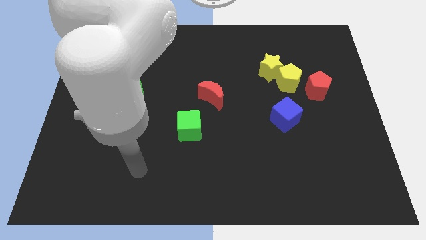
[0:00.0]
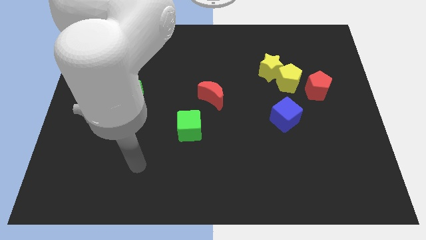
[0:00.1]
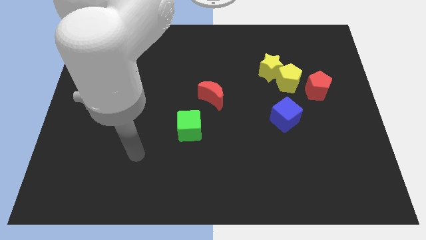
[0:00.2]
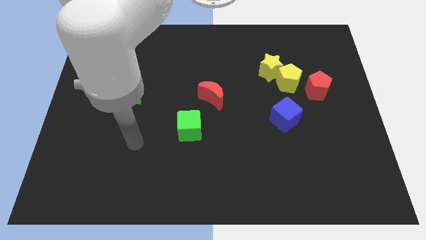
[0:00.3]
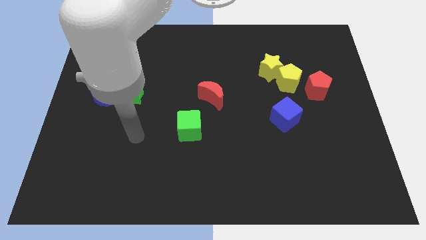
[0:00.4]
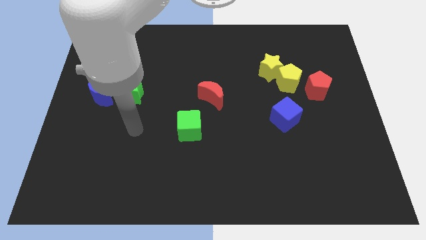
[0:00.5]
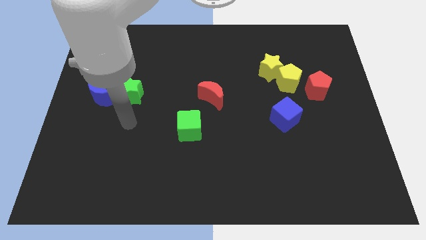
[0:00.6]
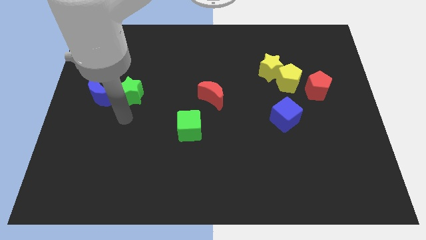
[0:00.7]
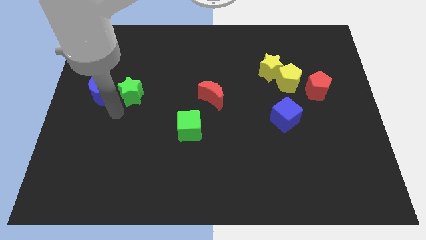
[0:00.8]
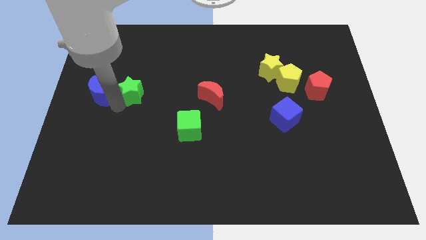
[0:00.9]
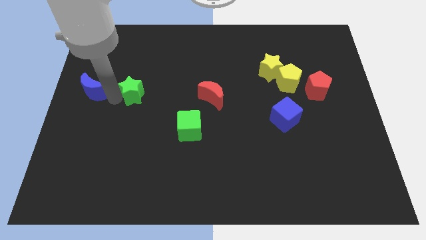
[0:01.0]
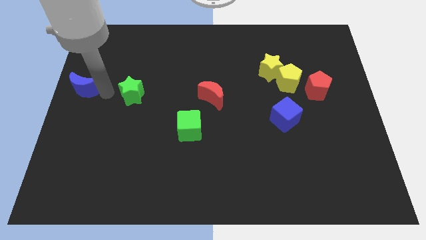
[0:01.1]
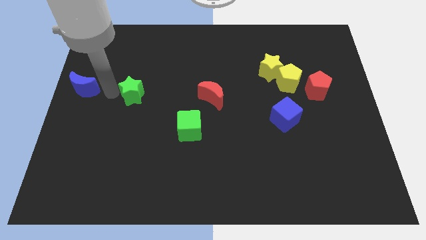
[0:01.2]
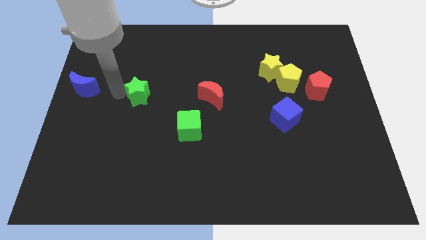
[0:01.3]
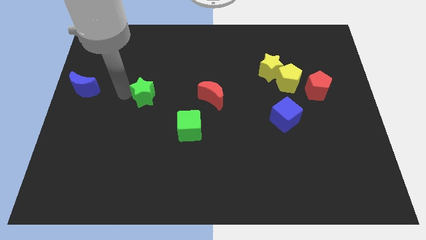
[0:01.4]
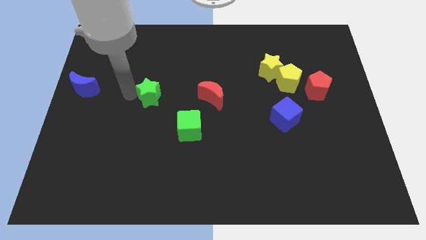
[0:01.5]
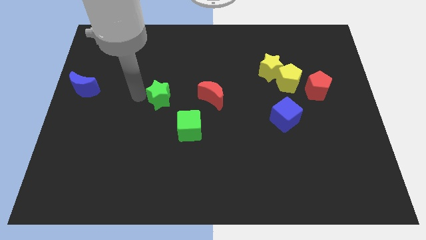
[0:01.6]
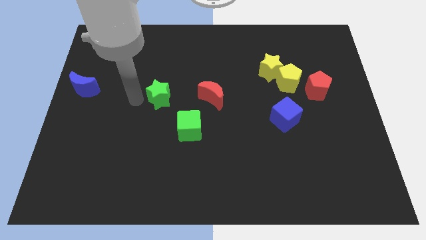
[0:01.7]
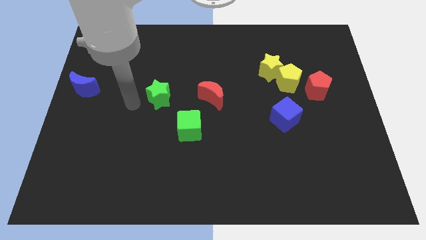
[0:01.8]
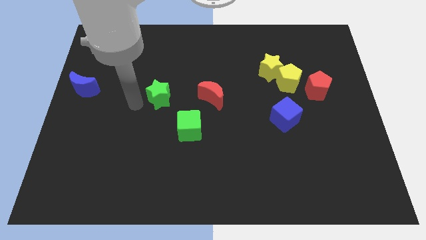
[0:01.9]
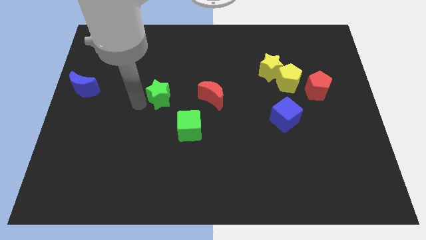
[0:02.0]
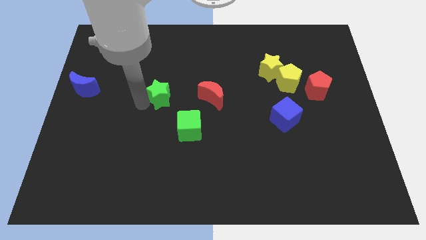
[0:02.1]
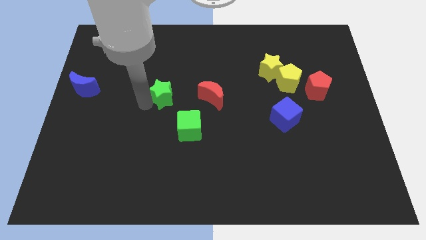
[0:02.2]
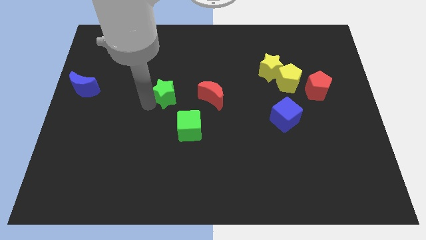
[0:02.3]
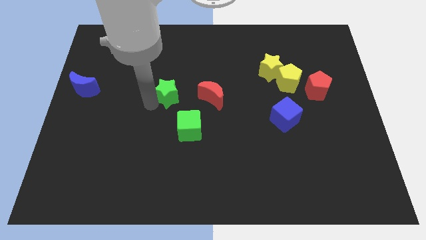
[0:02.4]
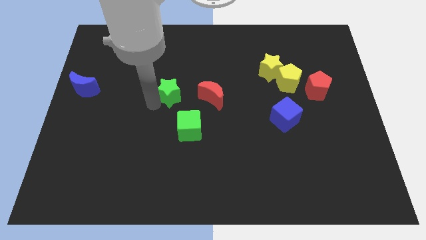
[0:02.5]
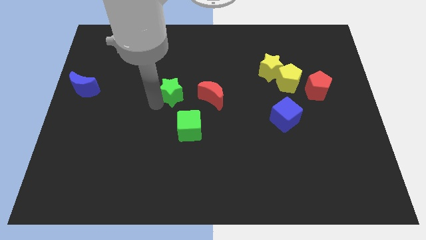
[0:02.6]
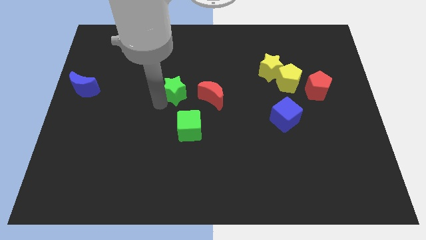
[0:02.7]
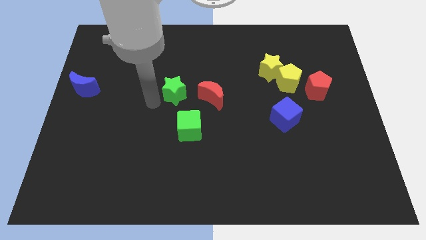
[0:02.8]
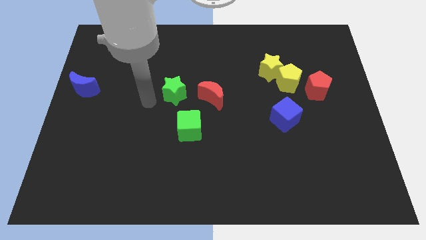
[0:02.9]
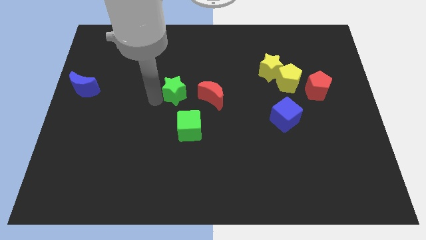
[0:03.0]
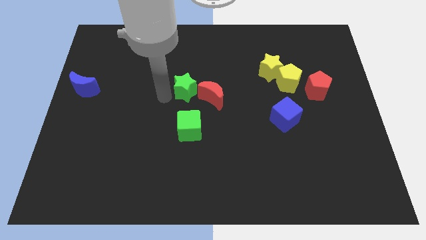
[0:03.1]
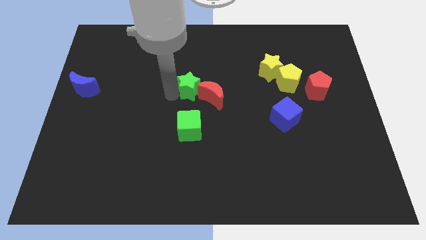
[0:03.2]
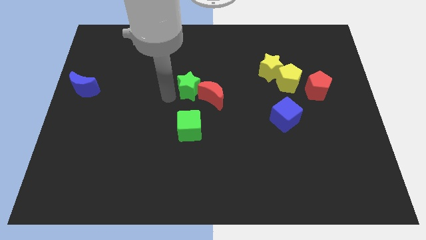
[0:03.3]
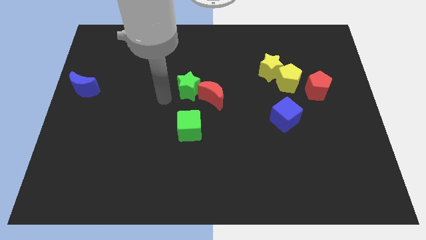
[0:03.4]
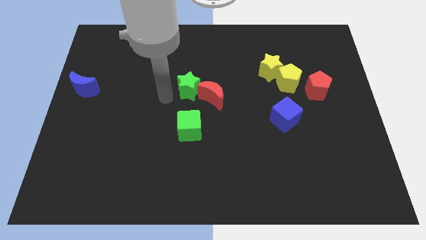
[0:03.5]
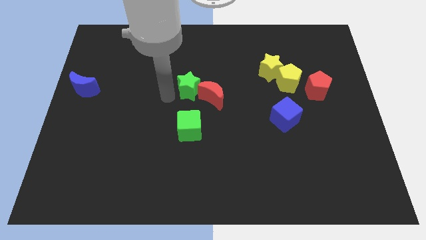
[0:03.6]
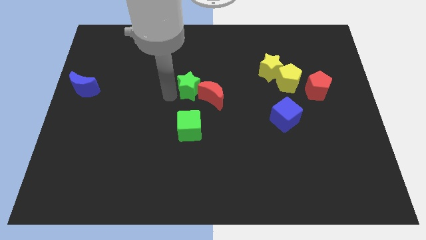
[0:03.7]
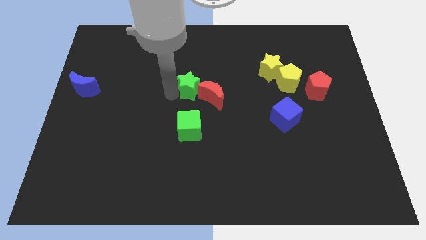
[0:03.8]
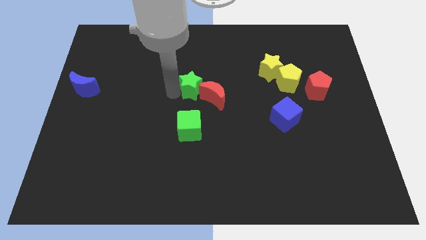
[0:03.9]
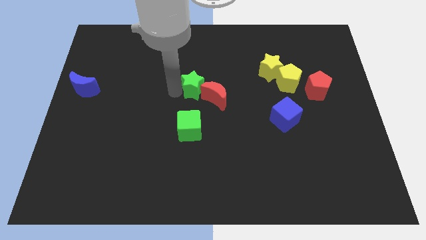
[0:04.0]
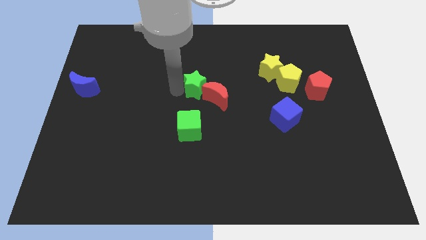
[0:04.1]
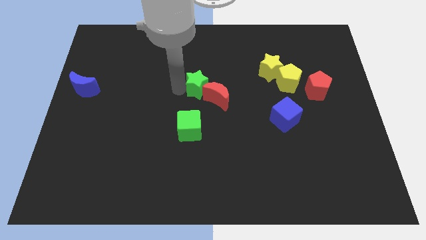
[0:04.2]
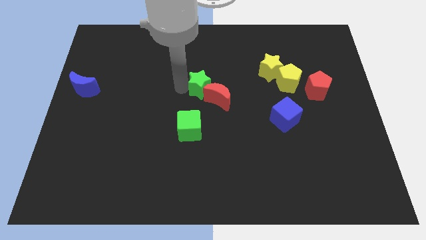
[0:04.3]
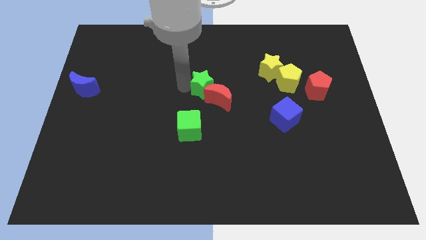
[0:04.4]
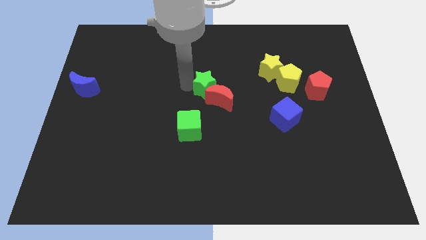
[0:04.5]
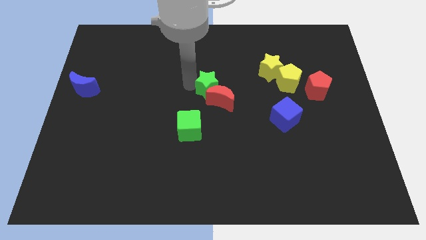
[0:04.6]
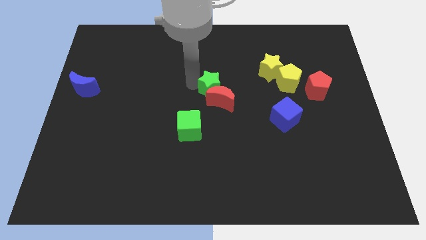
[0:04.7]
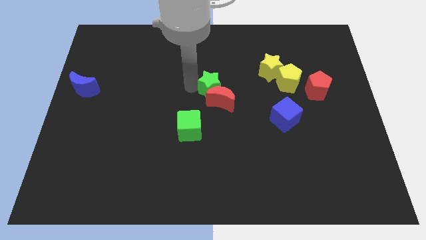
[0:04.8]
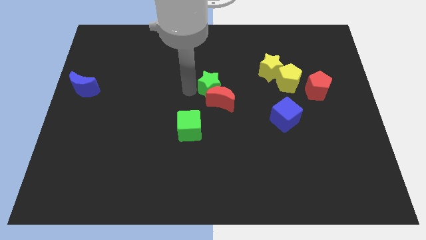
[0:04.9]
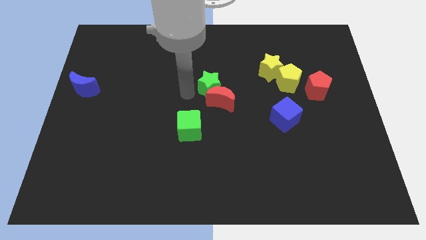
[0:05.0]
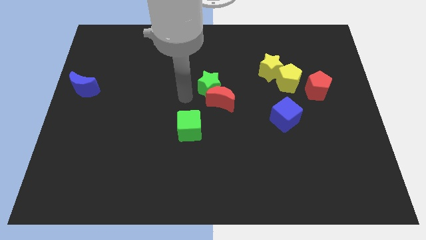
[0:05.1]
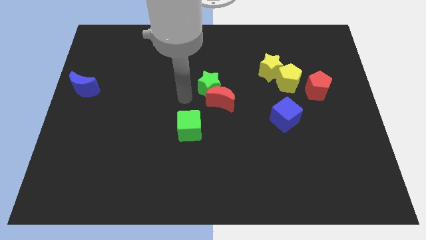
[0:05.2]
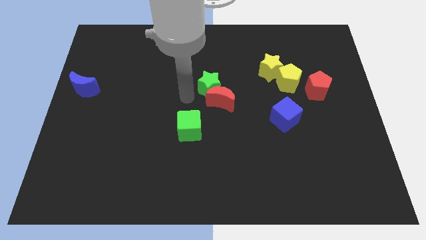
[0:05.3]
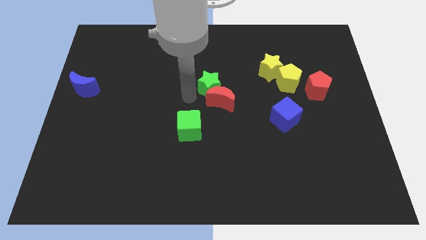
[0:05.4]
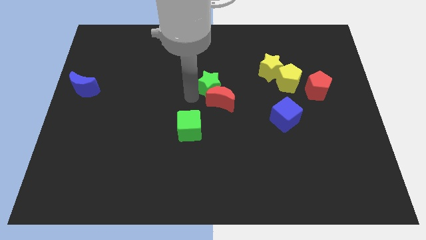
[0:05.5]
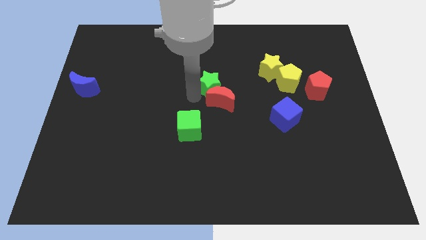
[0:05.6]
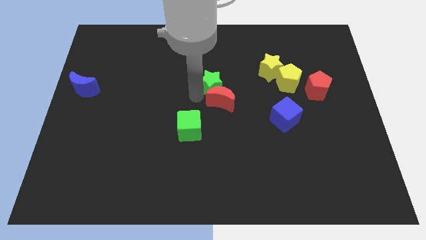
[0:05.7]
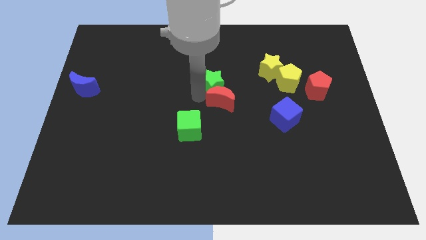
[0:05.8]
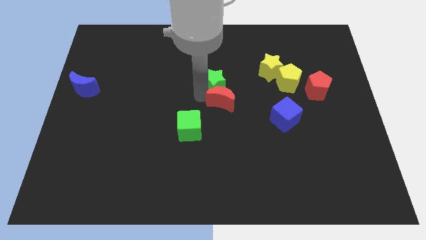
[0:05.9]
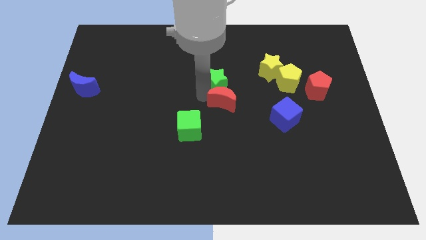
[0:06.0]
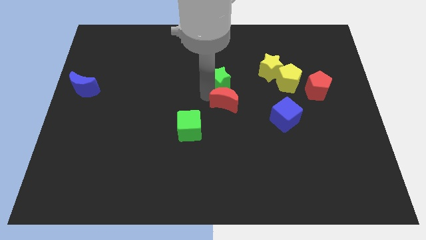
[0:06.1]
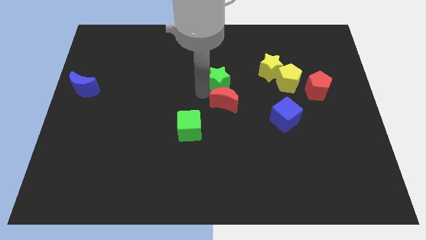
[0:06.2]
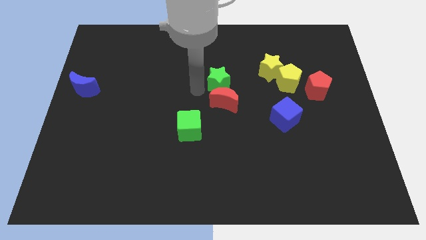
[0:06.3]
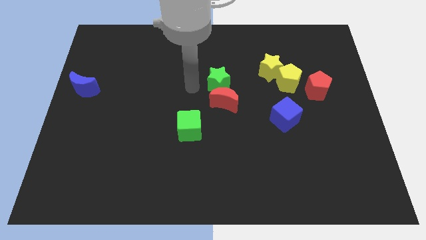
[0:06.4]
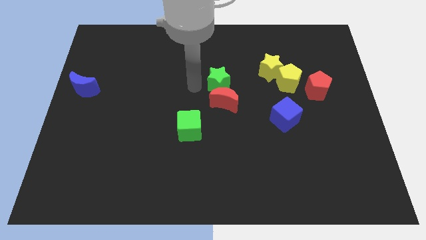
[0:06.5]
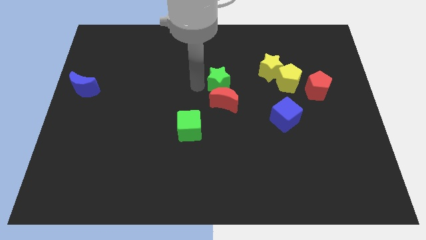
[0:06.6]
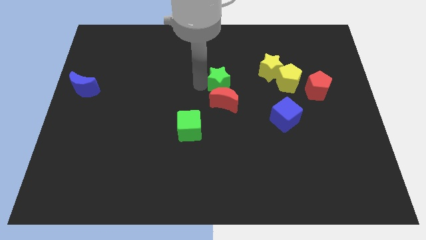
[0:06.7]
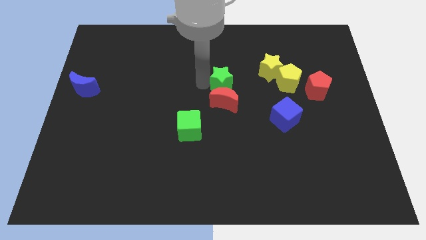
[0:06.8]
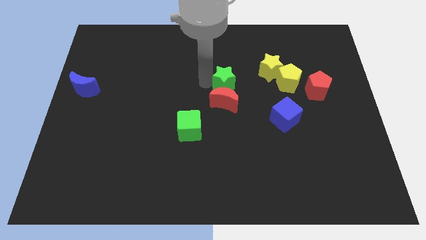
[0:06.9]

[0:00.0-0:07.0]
move the green star just left of the yellow pentagon

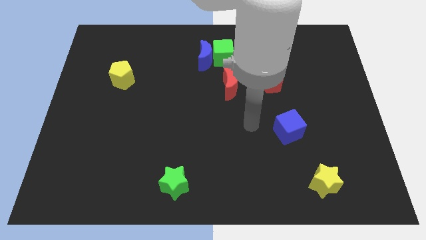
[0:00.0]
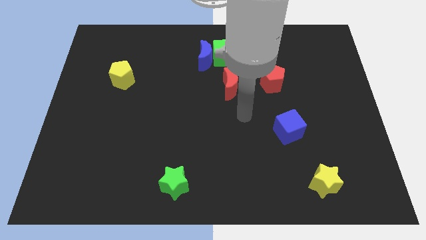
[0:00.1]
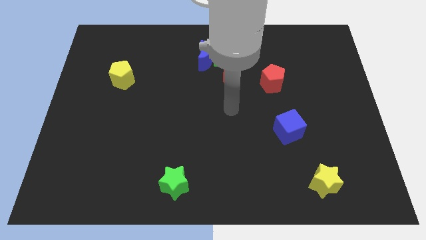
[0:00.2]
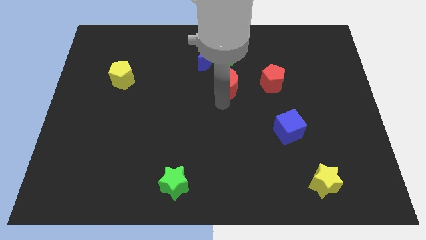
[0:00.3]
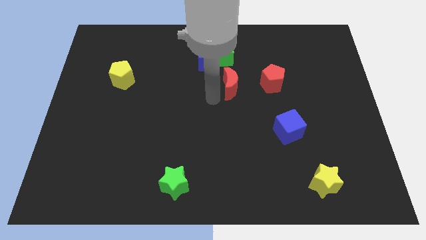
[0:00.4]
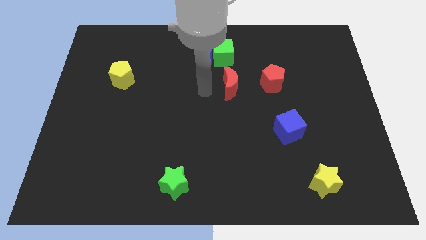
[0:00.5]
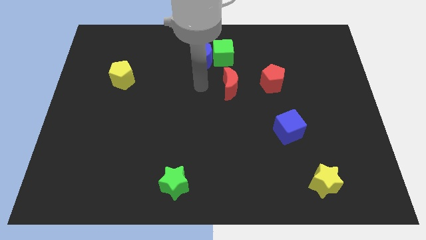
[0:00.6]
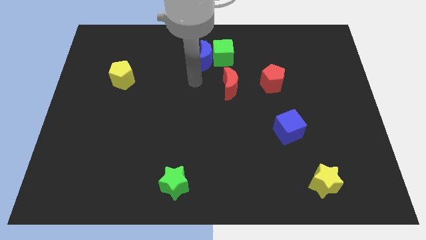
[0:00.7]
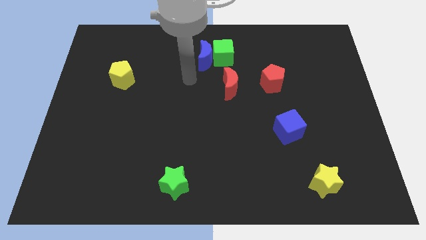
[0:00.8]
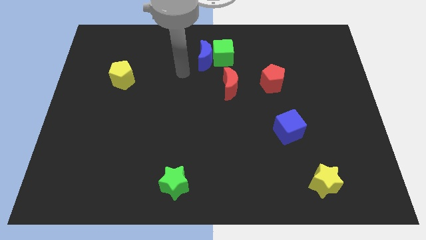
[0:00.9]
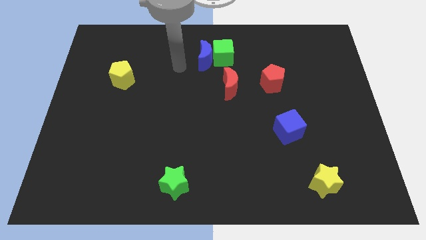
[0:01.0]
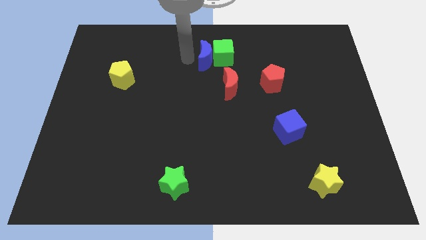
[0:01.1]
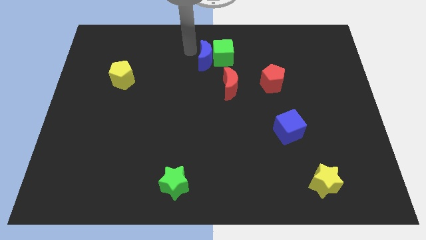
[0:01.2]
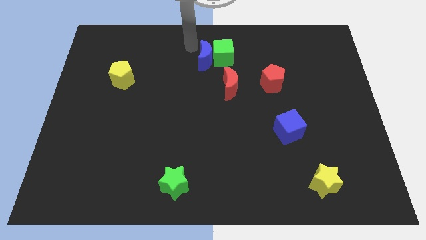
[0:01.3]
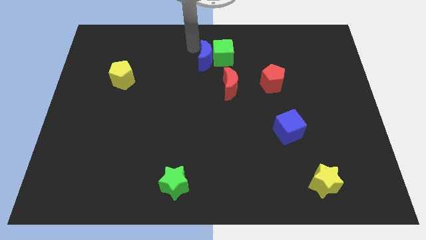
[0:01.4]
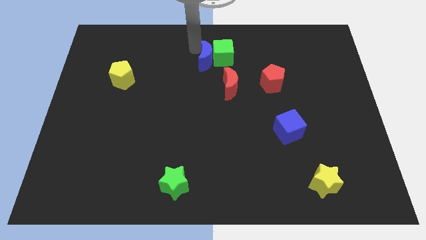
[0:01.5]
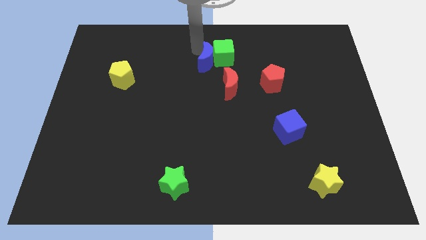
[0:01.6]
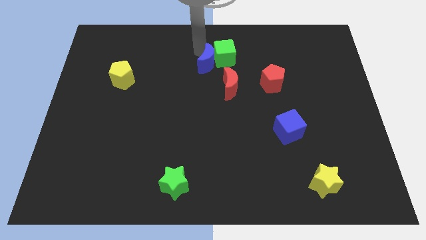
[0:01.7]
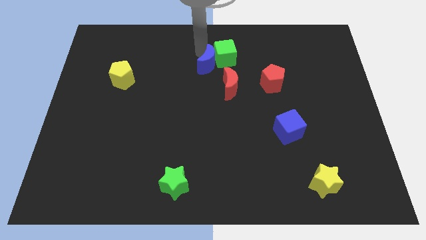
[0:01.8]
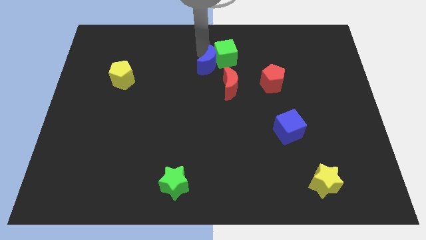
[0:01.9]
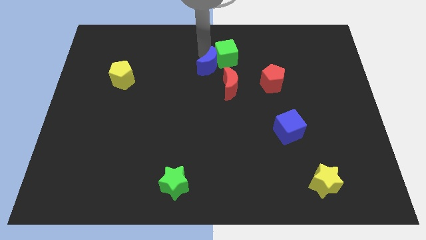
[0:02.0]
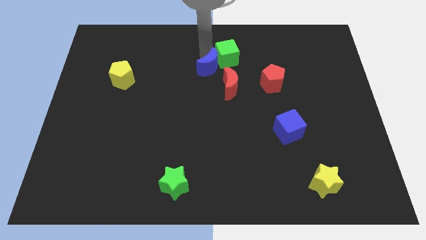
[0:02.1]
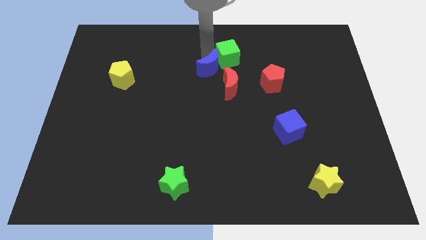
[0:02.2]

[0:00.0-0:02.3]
slide the blue moon to the top side of the red moon
